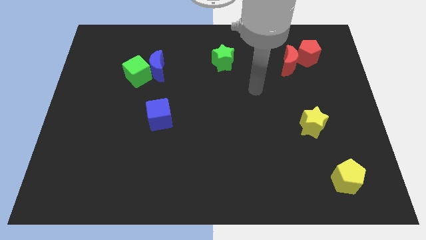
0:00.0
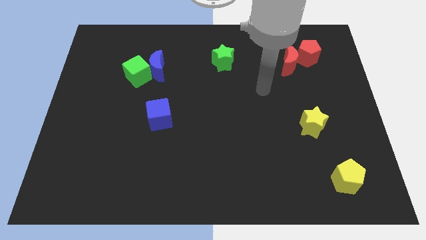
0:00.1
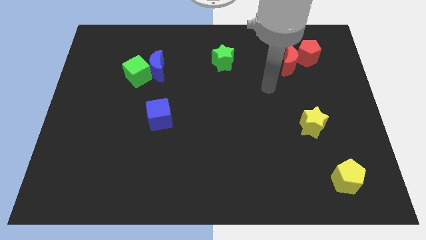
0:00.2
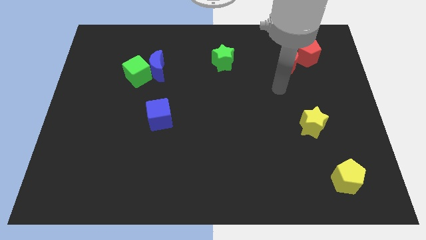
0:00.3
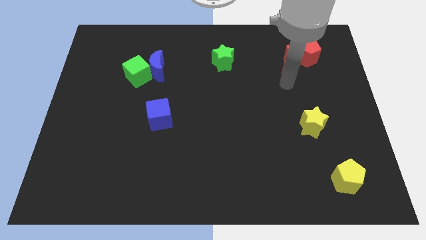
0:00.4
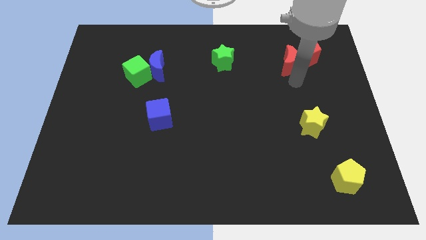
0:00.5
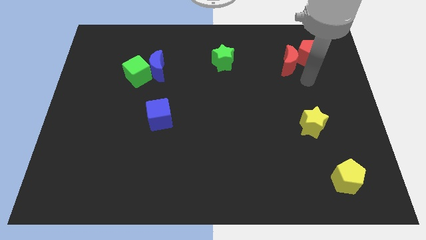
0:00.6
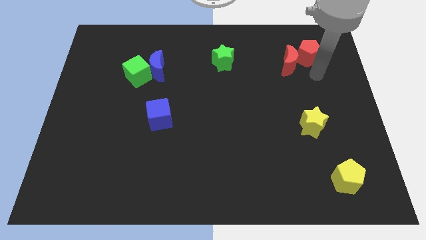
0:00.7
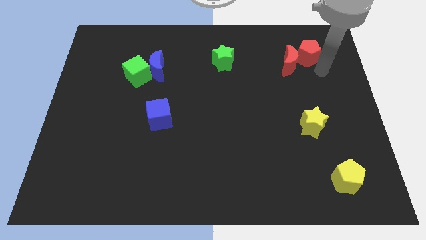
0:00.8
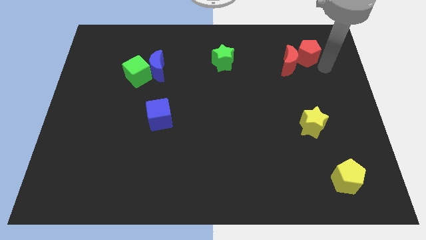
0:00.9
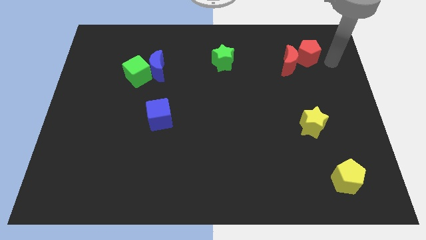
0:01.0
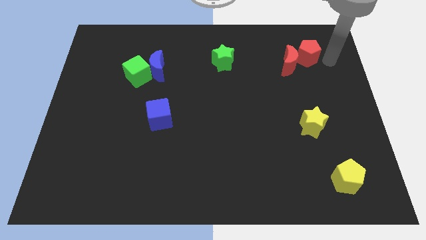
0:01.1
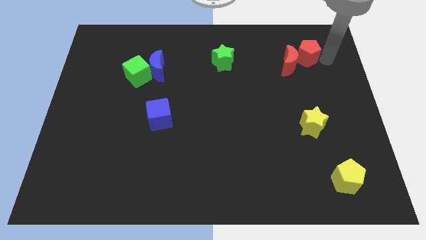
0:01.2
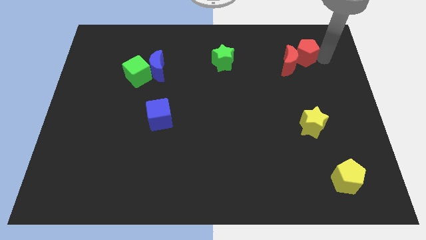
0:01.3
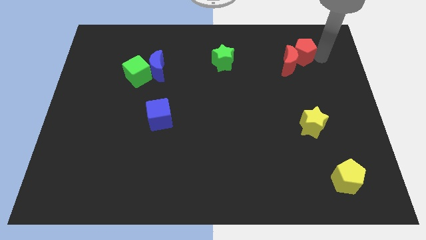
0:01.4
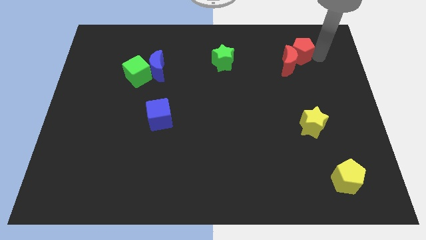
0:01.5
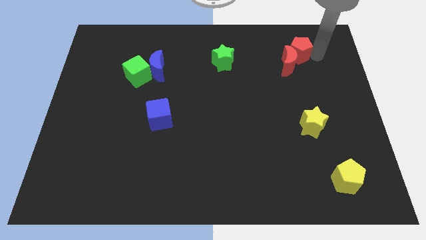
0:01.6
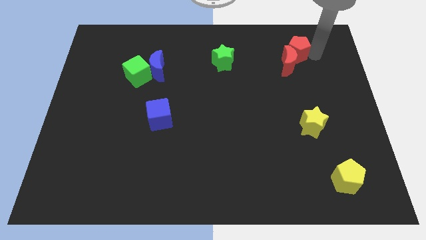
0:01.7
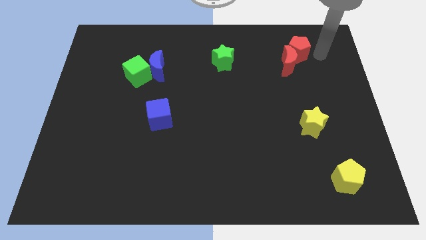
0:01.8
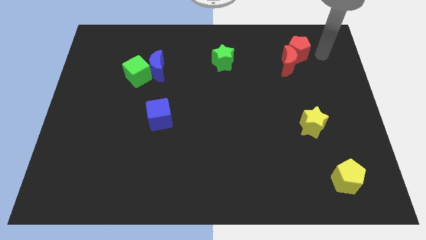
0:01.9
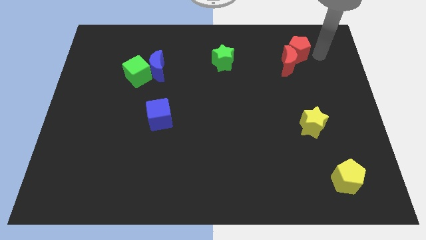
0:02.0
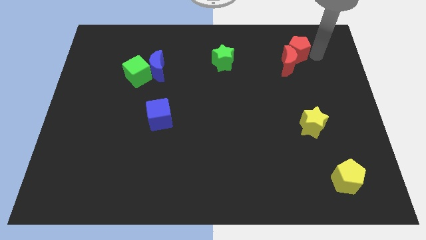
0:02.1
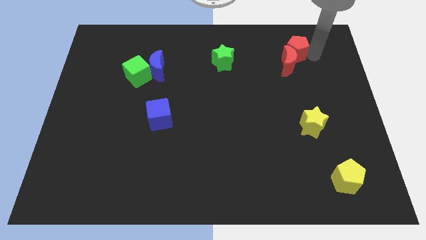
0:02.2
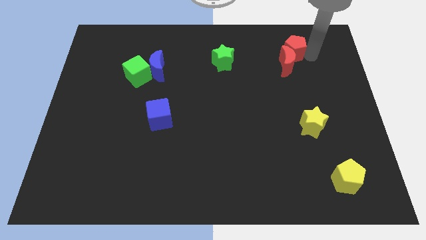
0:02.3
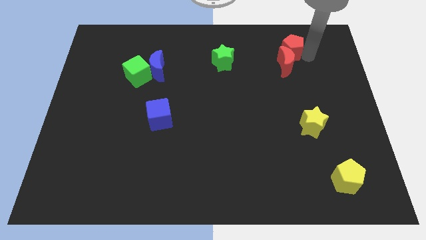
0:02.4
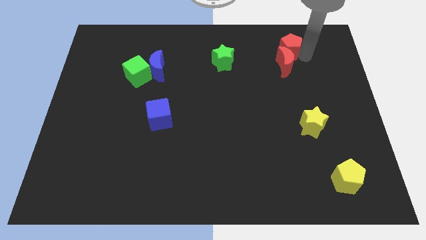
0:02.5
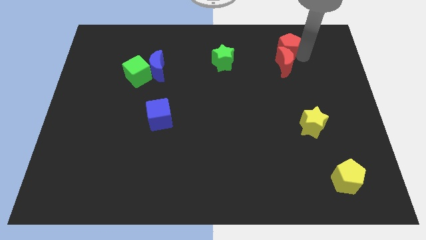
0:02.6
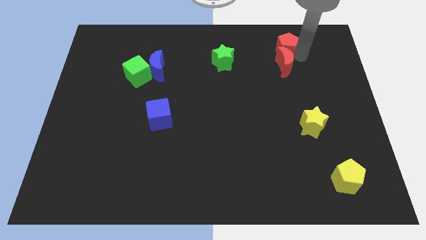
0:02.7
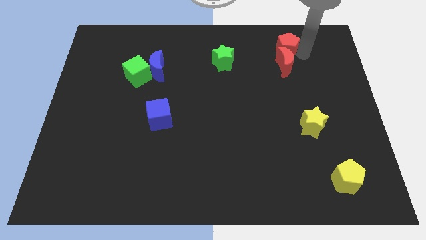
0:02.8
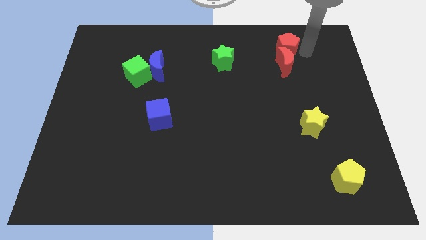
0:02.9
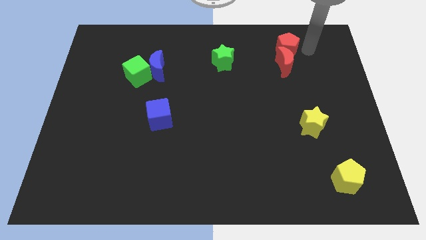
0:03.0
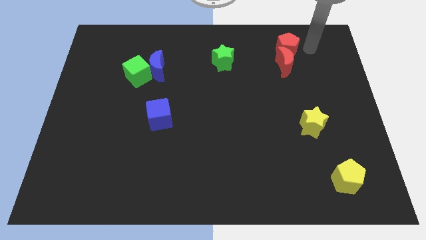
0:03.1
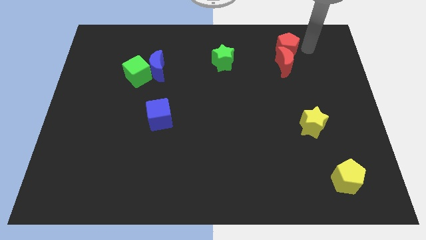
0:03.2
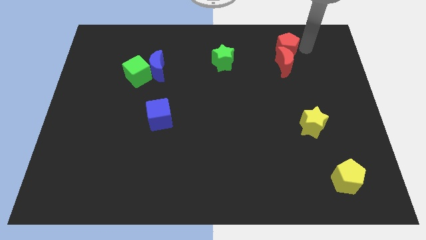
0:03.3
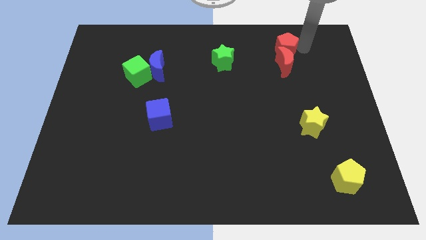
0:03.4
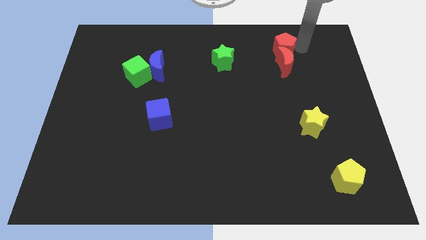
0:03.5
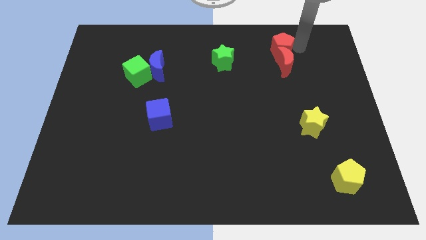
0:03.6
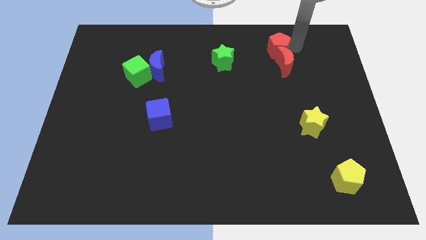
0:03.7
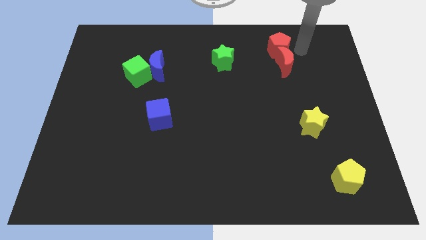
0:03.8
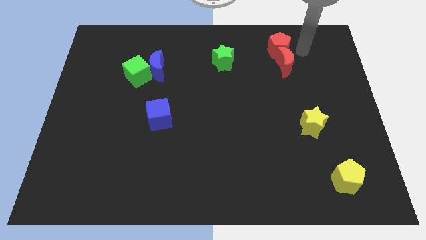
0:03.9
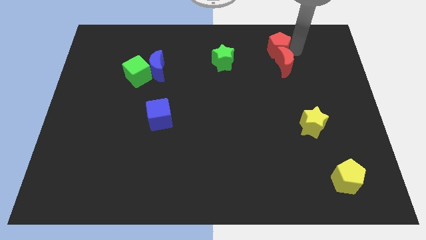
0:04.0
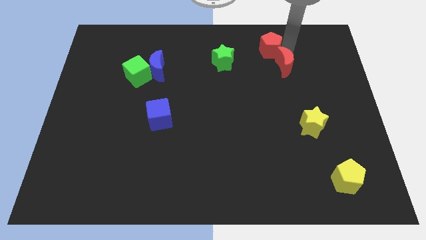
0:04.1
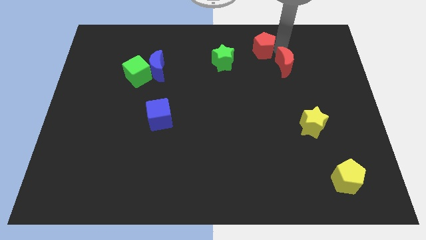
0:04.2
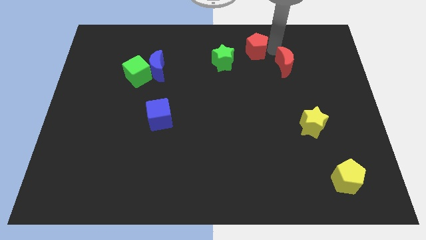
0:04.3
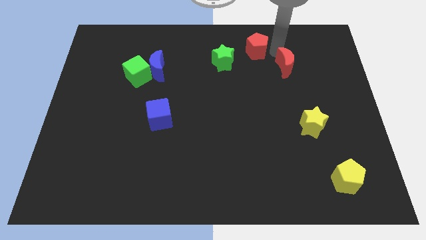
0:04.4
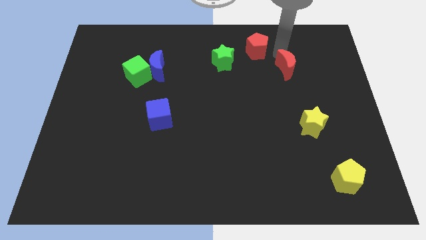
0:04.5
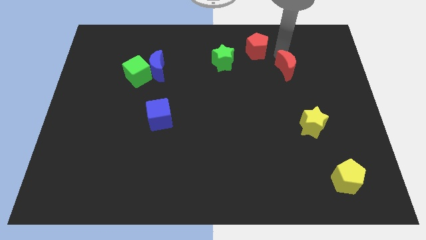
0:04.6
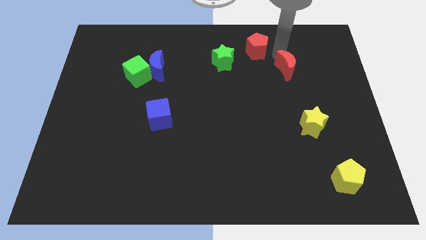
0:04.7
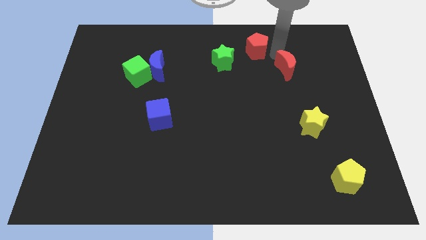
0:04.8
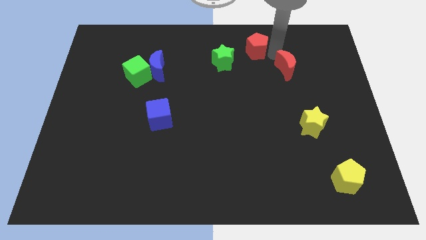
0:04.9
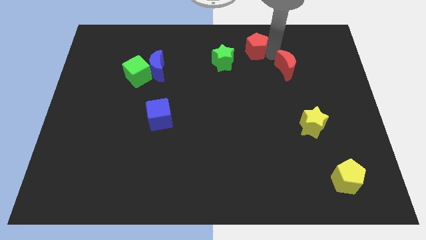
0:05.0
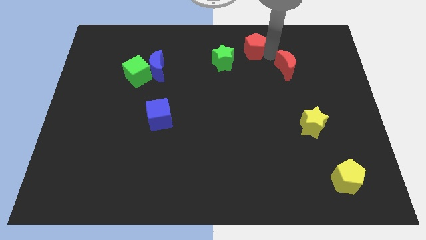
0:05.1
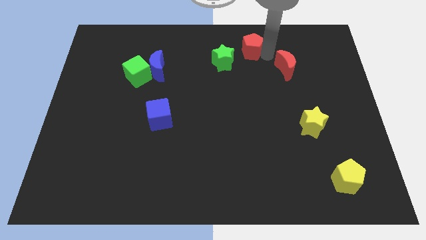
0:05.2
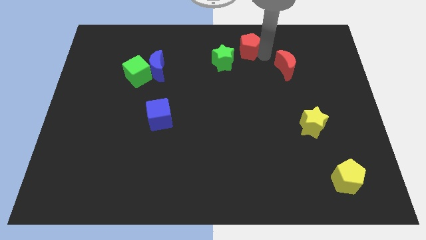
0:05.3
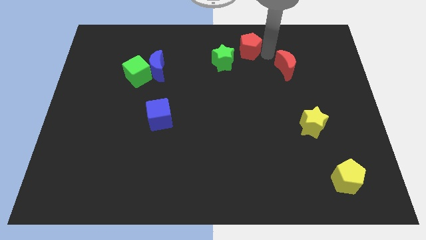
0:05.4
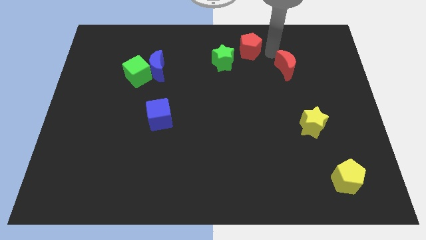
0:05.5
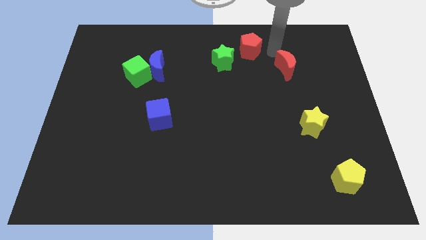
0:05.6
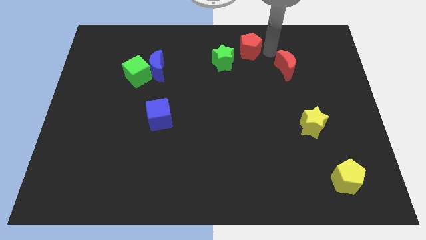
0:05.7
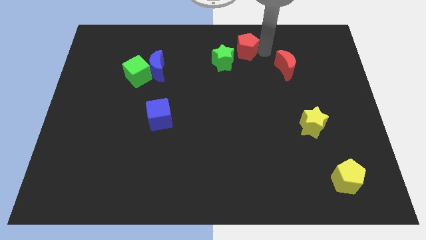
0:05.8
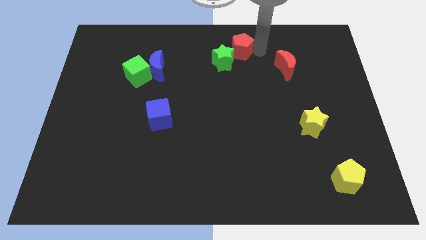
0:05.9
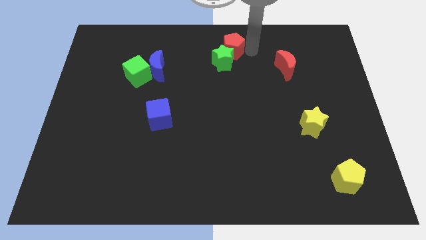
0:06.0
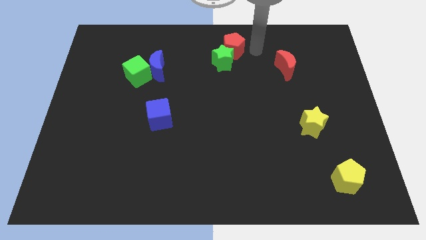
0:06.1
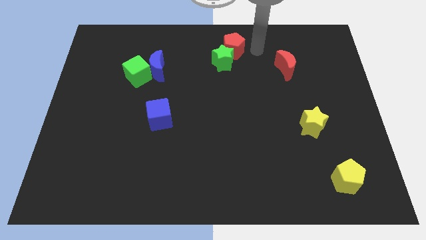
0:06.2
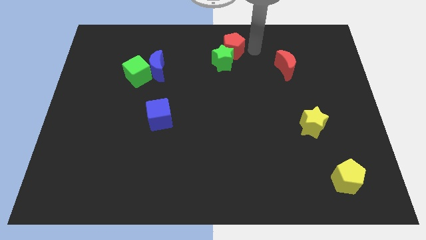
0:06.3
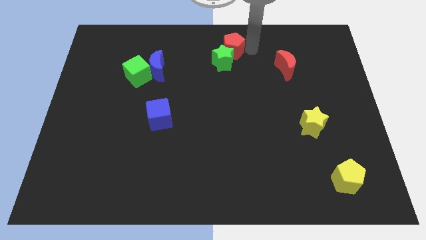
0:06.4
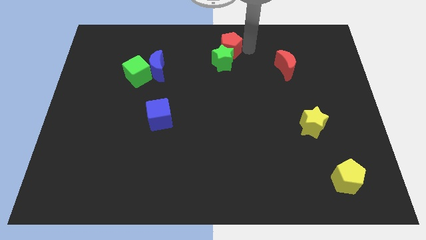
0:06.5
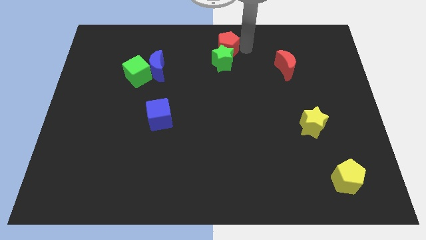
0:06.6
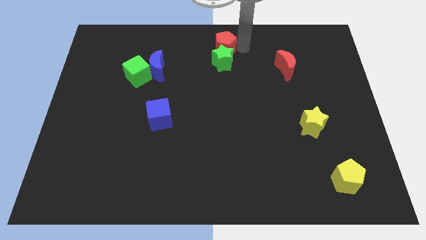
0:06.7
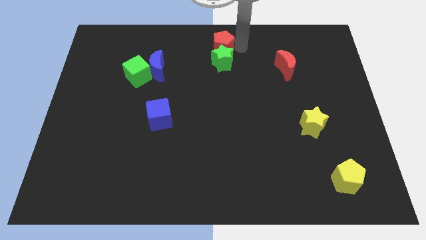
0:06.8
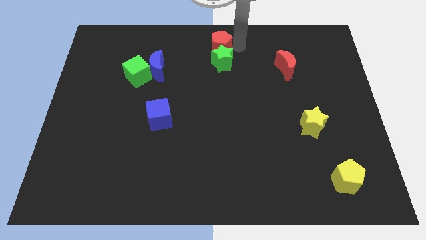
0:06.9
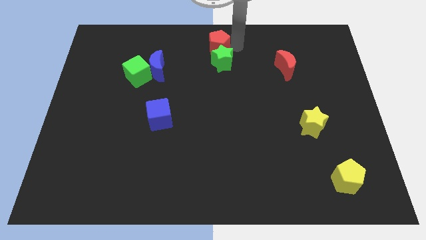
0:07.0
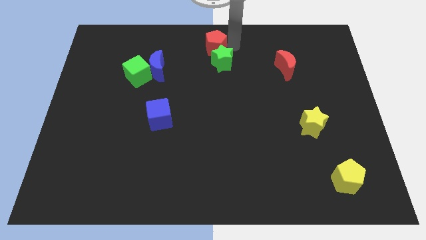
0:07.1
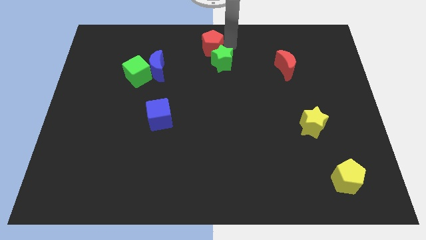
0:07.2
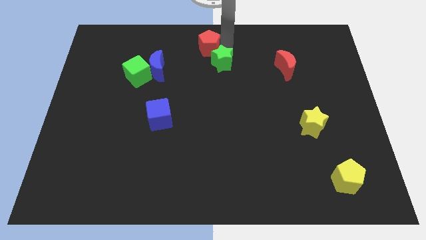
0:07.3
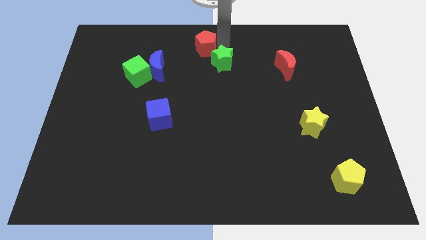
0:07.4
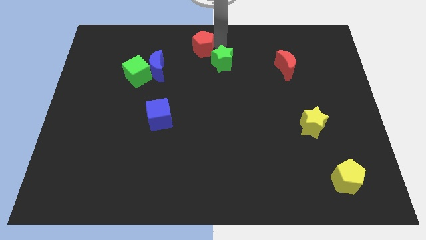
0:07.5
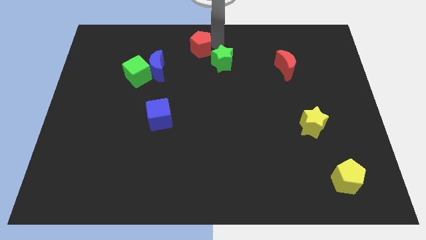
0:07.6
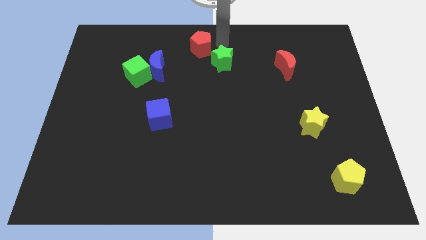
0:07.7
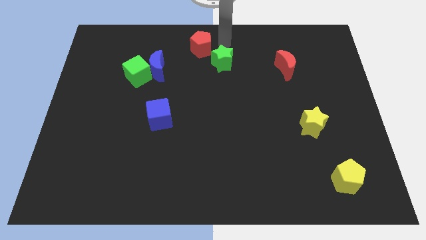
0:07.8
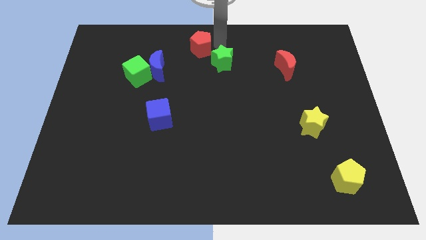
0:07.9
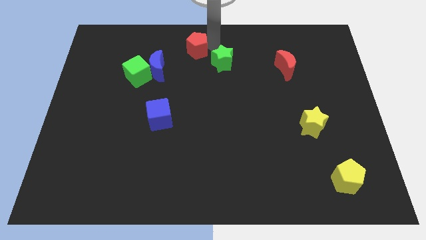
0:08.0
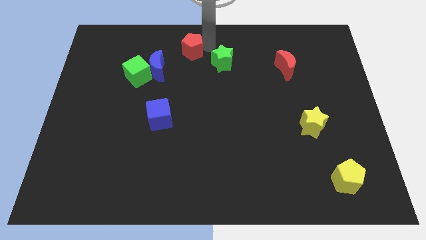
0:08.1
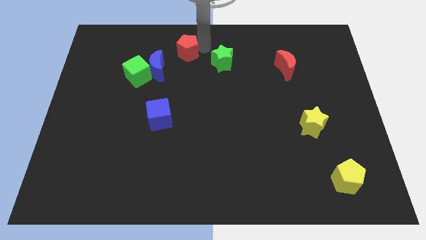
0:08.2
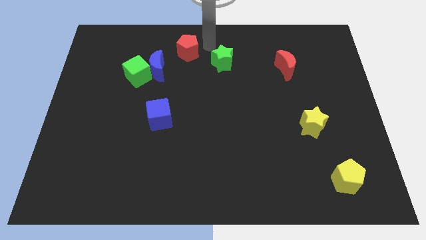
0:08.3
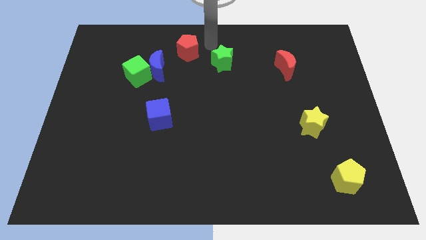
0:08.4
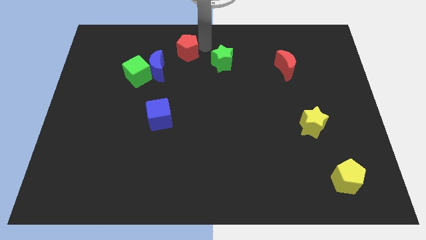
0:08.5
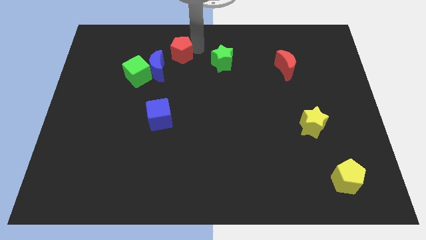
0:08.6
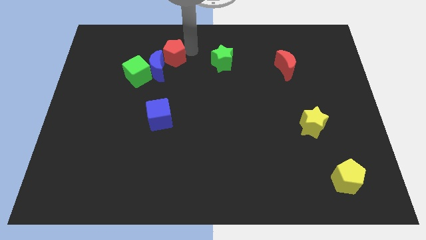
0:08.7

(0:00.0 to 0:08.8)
push the red pentagon diagonally up and to the right of the green cube
